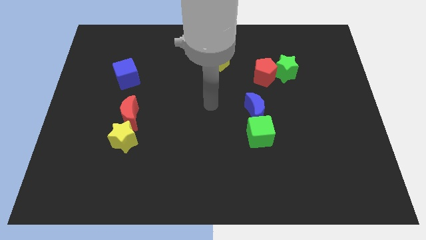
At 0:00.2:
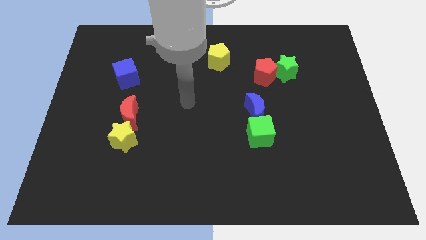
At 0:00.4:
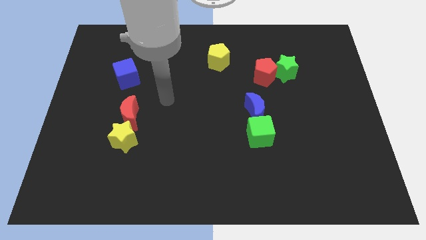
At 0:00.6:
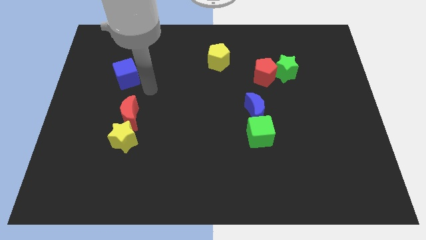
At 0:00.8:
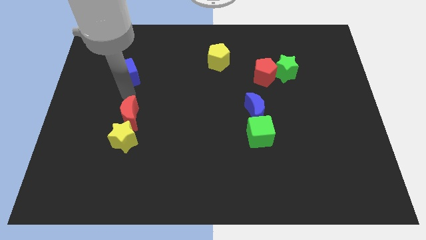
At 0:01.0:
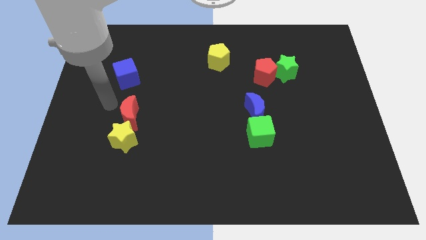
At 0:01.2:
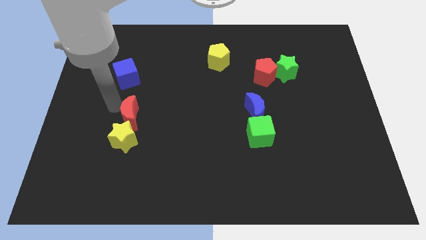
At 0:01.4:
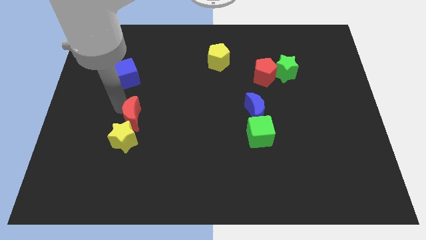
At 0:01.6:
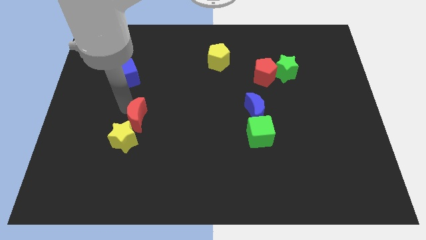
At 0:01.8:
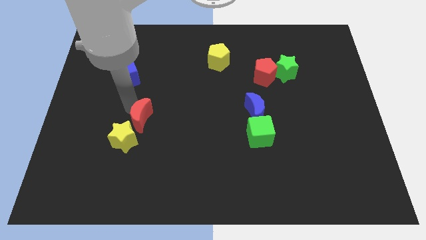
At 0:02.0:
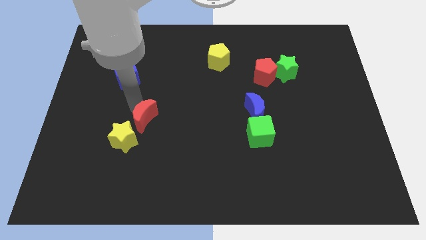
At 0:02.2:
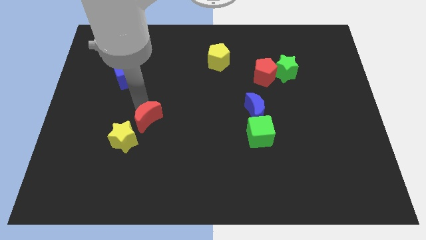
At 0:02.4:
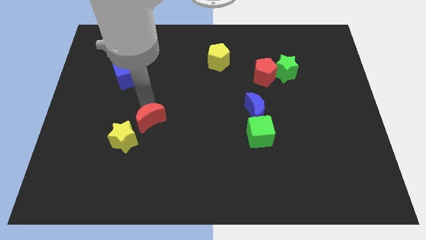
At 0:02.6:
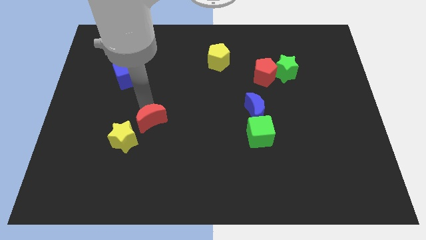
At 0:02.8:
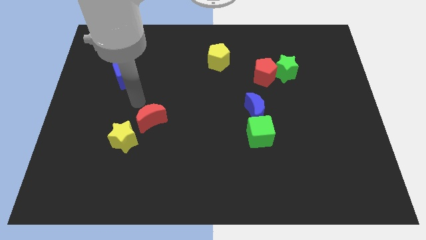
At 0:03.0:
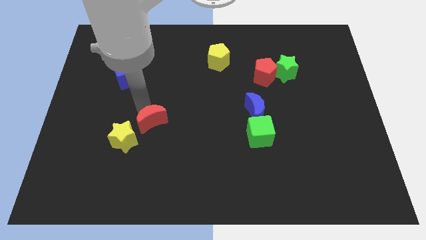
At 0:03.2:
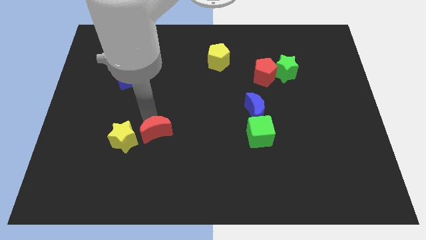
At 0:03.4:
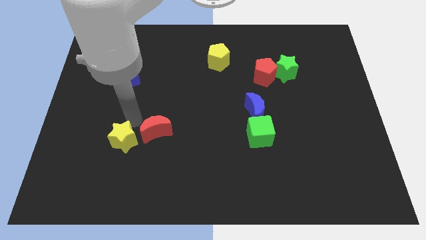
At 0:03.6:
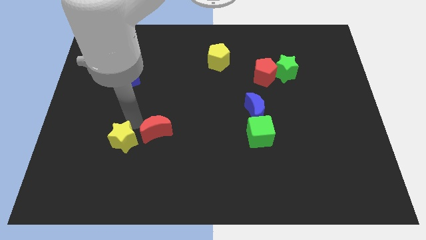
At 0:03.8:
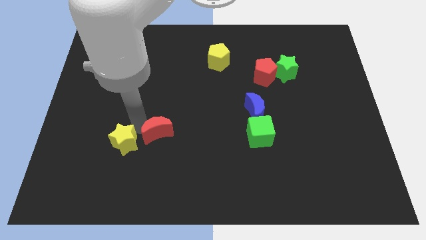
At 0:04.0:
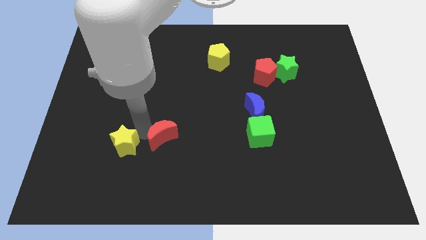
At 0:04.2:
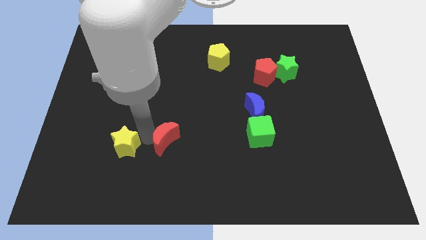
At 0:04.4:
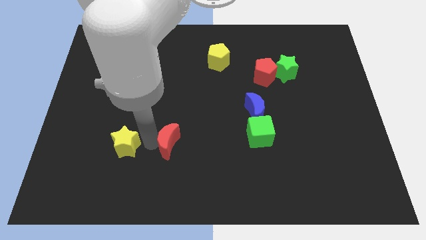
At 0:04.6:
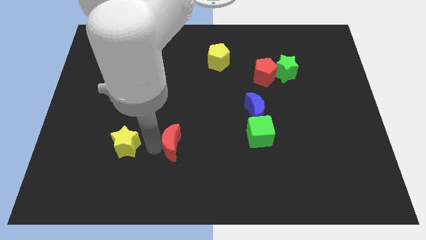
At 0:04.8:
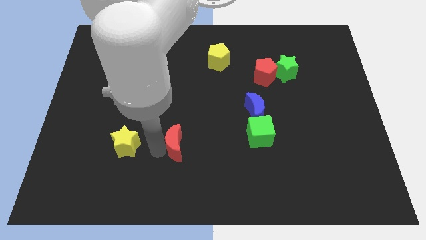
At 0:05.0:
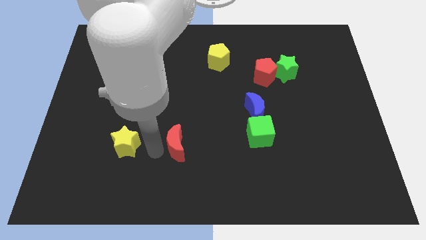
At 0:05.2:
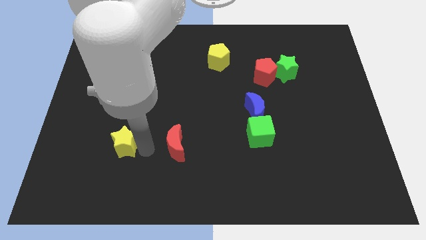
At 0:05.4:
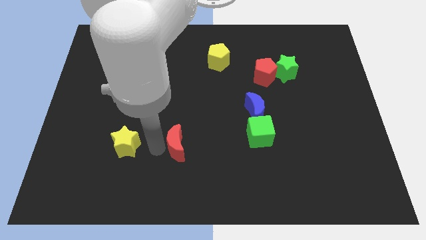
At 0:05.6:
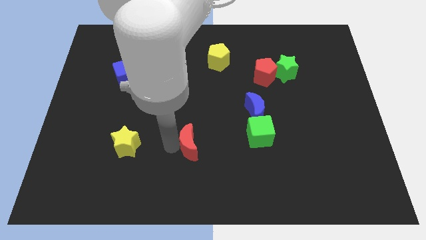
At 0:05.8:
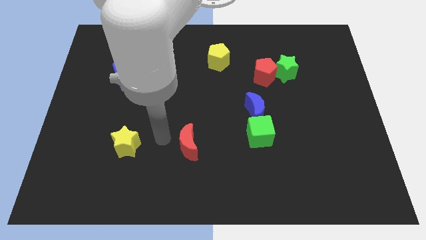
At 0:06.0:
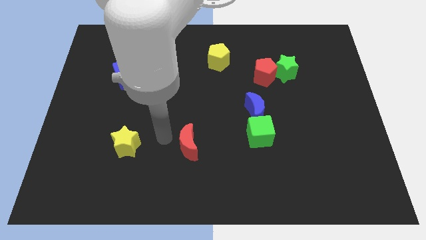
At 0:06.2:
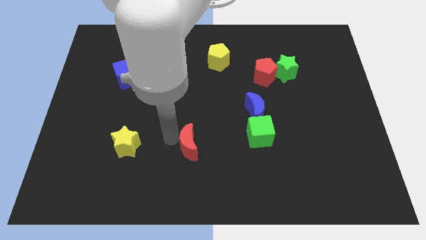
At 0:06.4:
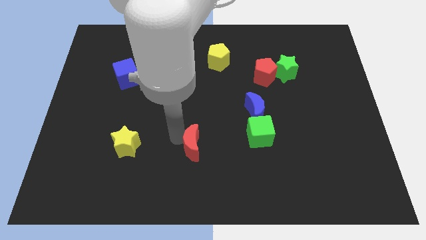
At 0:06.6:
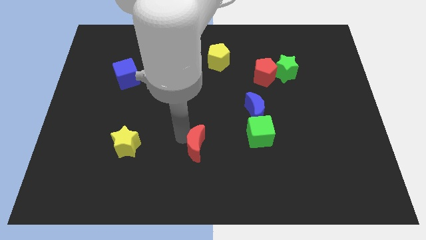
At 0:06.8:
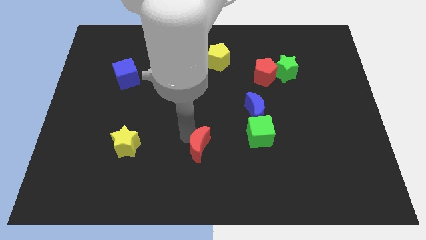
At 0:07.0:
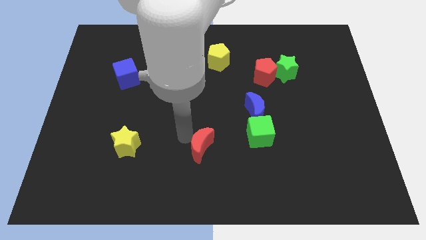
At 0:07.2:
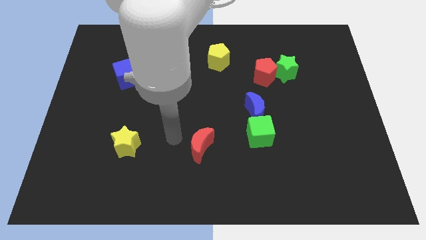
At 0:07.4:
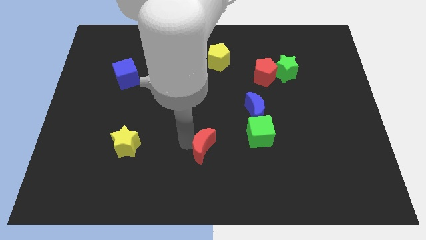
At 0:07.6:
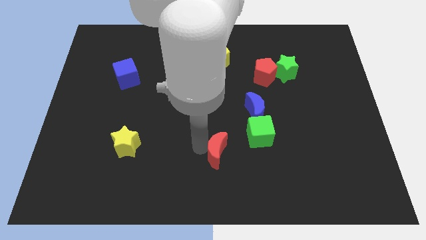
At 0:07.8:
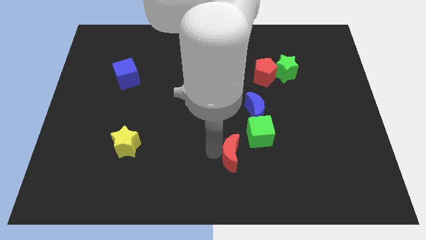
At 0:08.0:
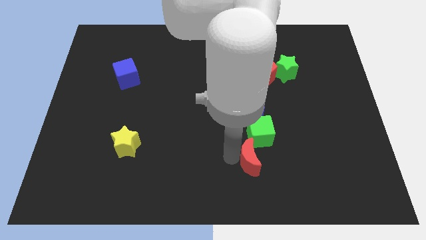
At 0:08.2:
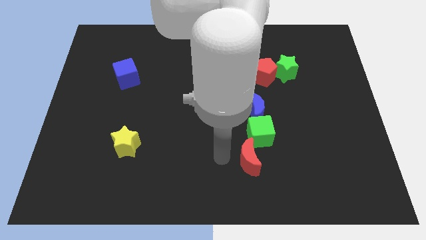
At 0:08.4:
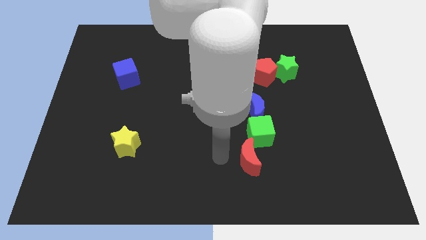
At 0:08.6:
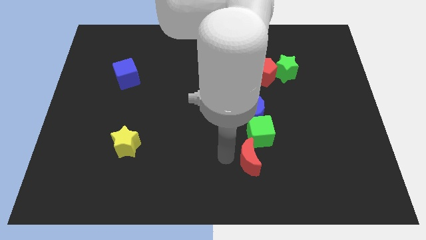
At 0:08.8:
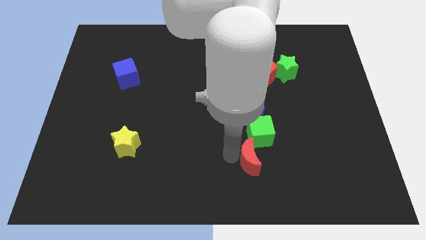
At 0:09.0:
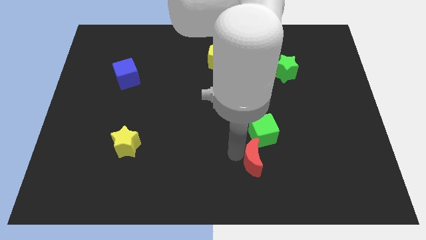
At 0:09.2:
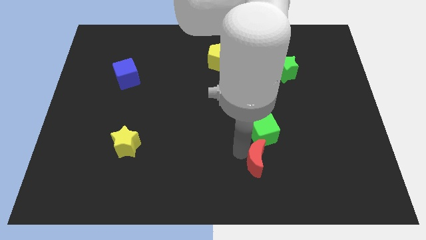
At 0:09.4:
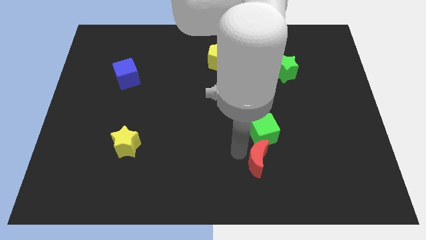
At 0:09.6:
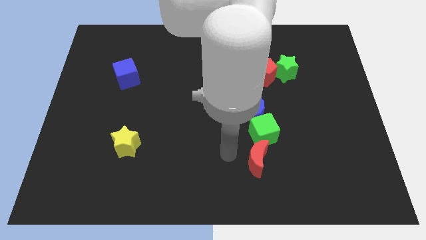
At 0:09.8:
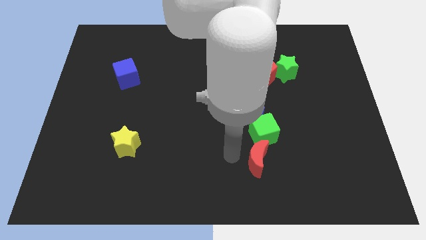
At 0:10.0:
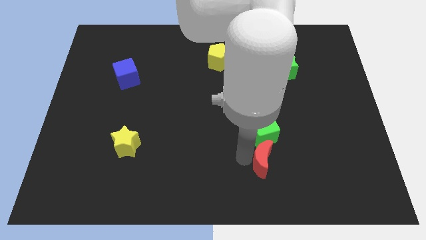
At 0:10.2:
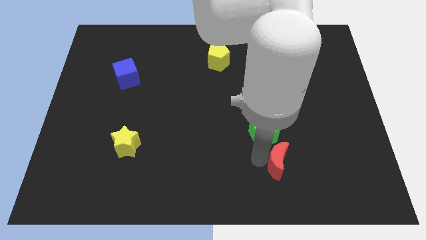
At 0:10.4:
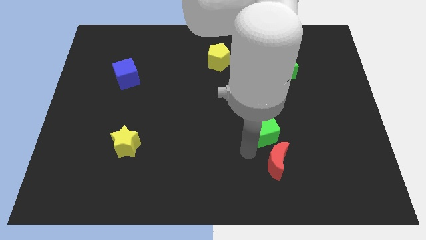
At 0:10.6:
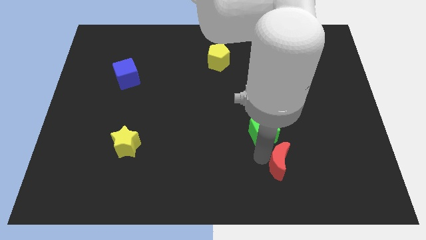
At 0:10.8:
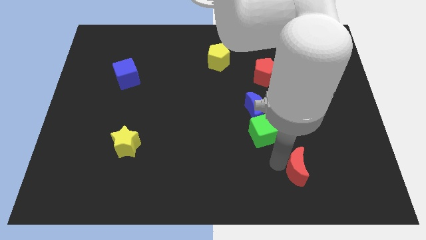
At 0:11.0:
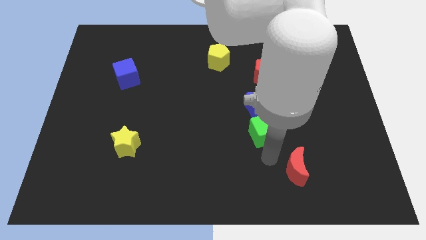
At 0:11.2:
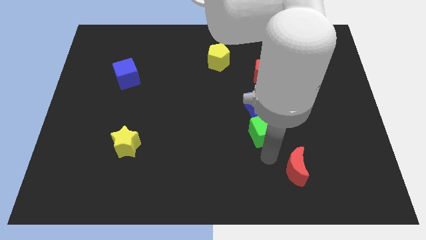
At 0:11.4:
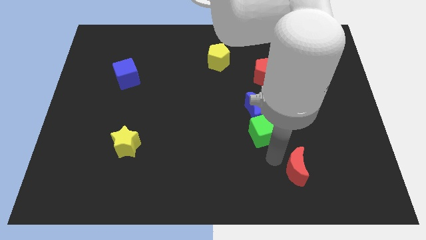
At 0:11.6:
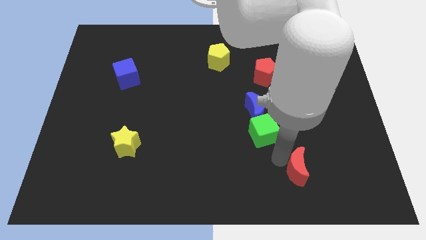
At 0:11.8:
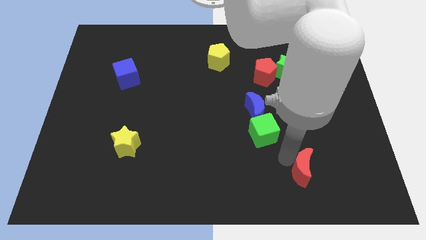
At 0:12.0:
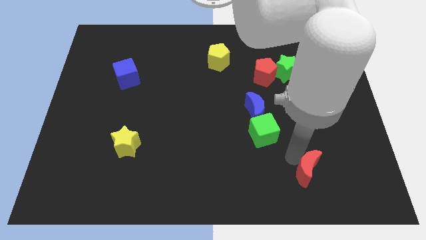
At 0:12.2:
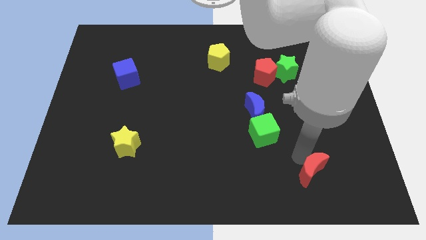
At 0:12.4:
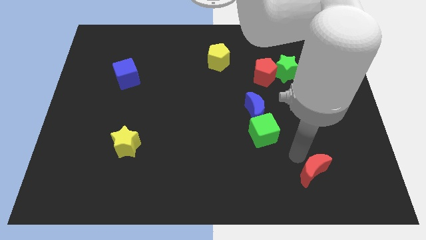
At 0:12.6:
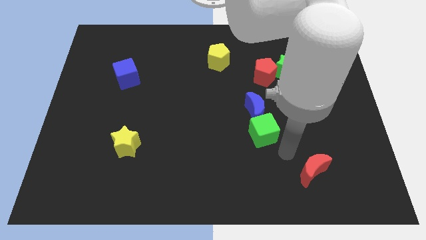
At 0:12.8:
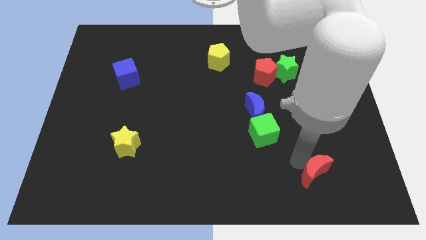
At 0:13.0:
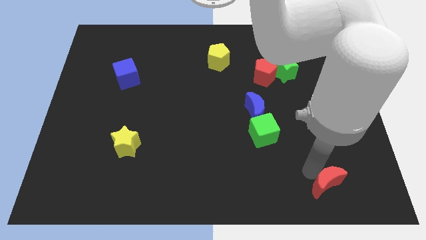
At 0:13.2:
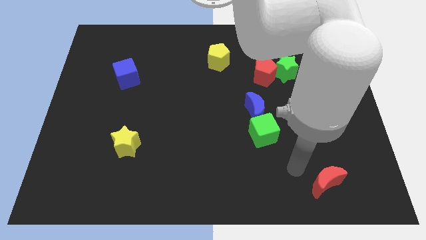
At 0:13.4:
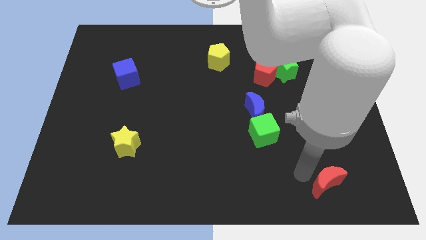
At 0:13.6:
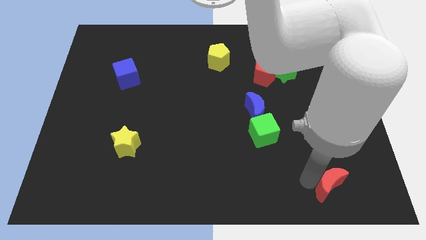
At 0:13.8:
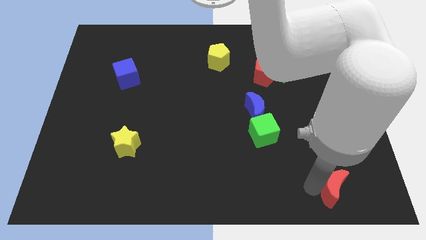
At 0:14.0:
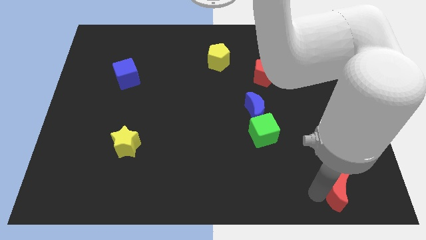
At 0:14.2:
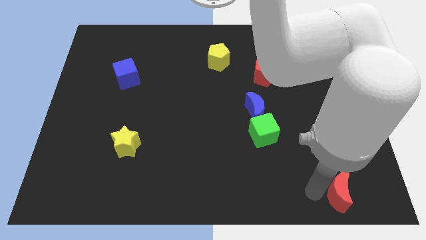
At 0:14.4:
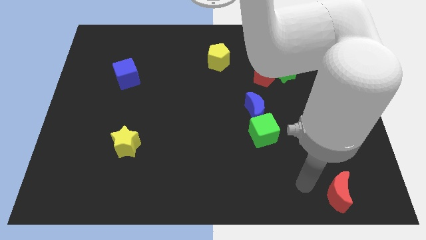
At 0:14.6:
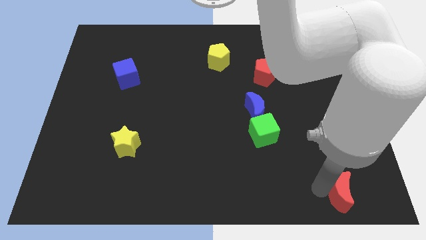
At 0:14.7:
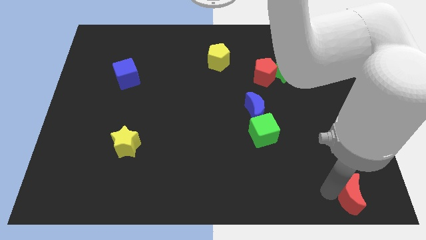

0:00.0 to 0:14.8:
slide the red moon to the bottom right
